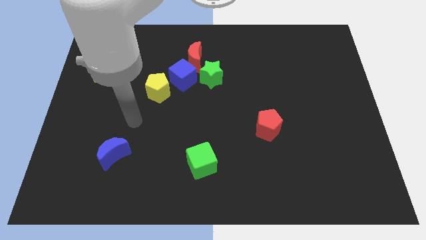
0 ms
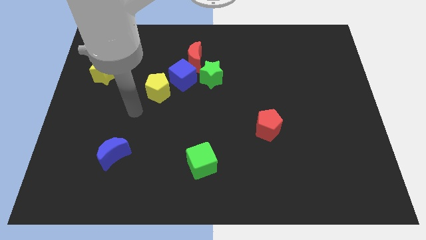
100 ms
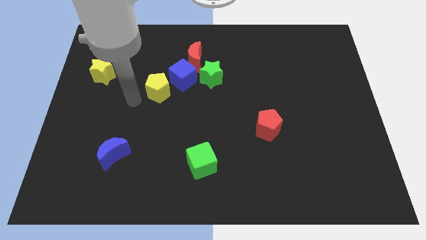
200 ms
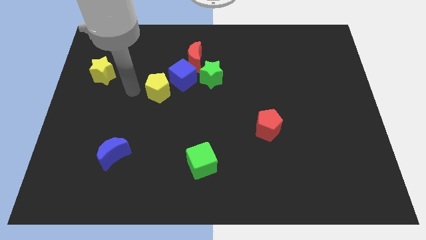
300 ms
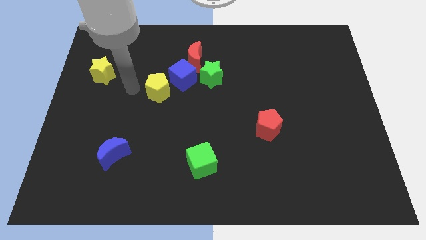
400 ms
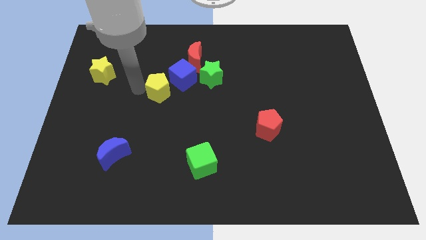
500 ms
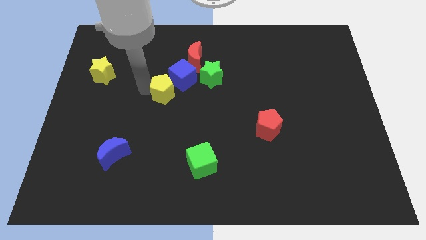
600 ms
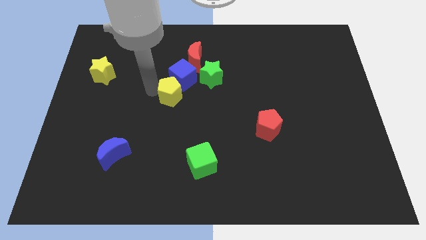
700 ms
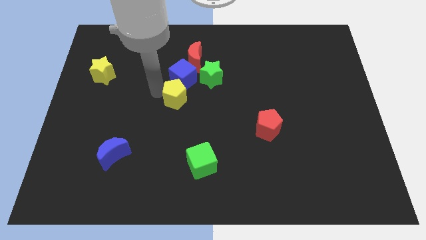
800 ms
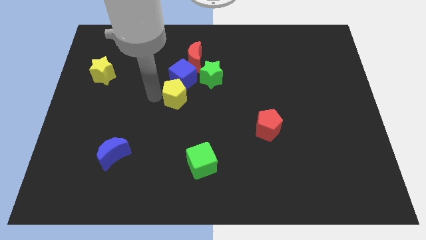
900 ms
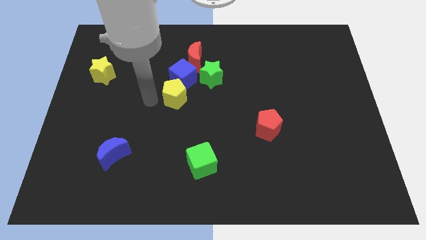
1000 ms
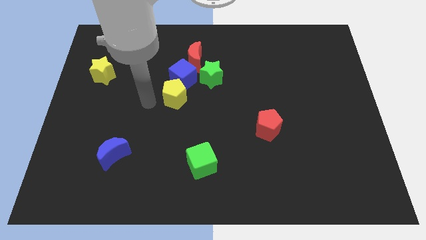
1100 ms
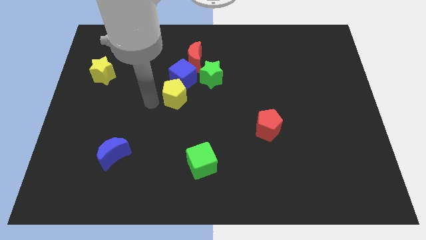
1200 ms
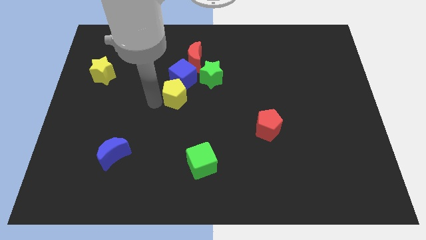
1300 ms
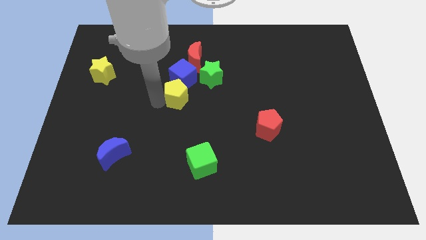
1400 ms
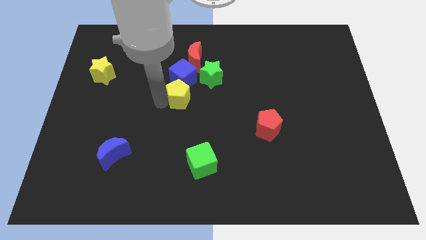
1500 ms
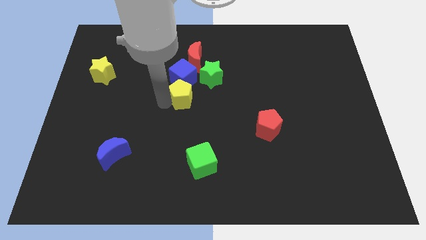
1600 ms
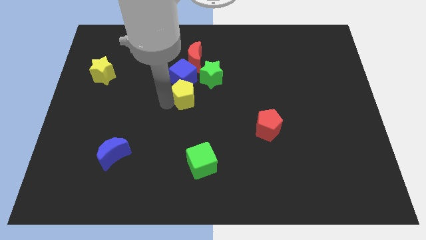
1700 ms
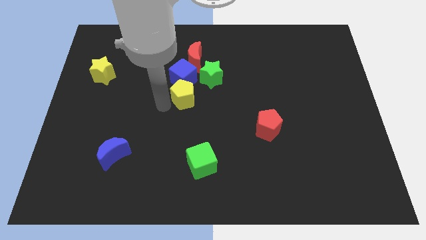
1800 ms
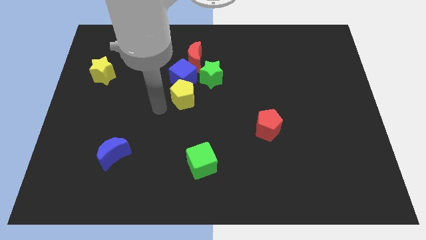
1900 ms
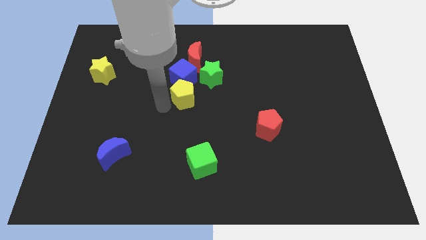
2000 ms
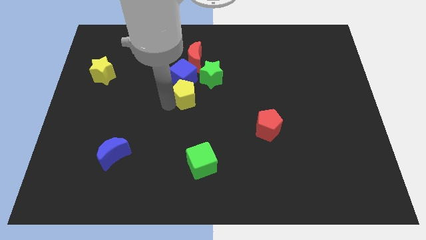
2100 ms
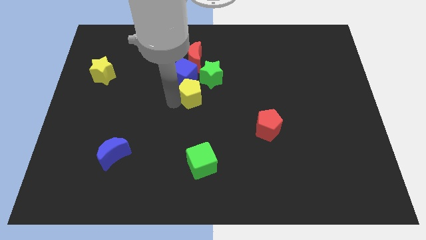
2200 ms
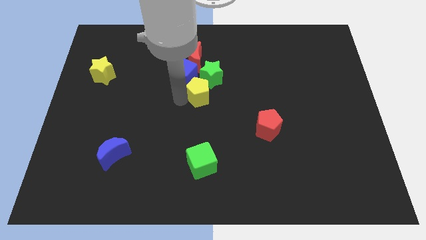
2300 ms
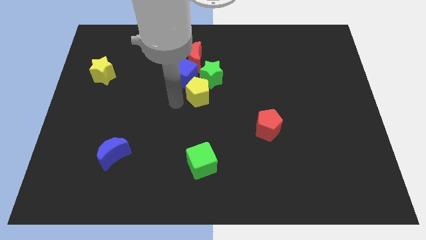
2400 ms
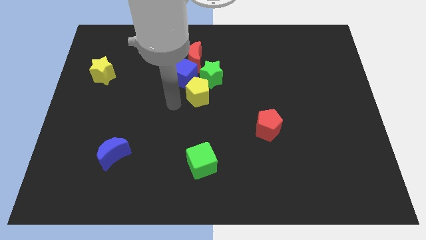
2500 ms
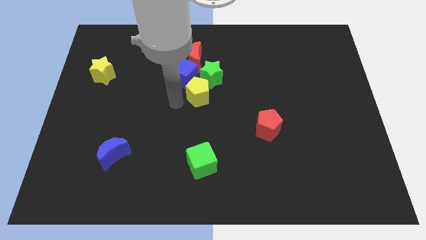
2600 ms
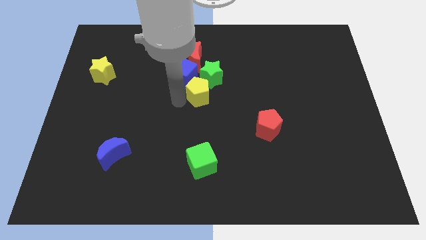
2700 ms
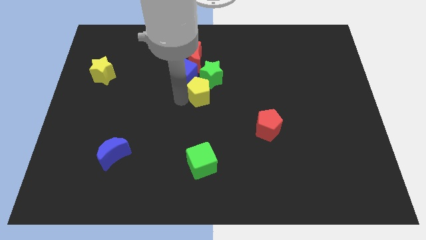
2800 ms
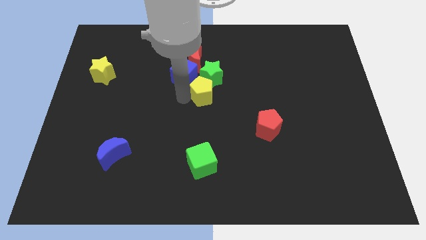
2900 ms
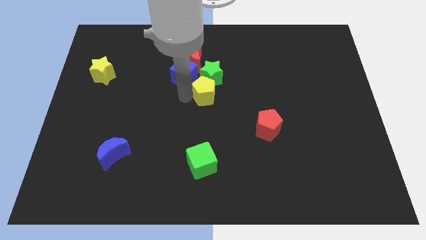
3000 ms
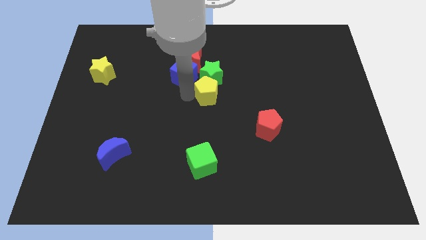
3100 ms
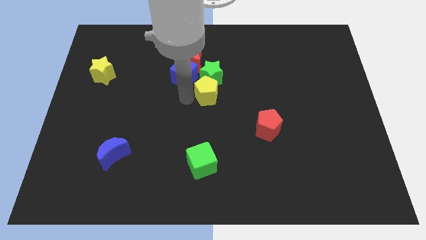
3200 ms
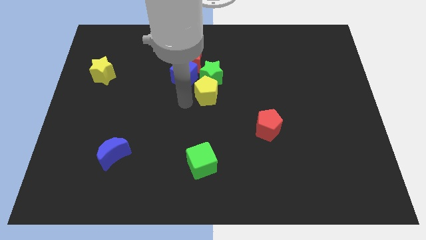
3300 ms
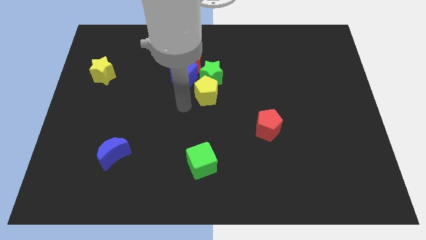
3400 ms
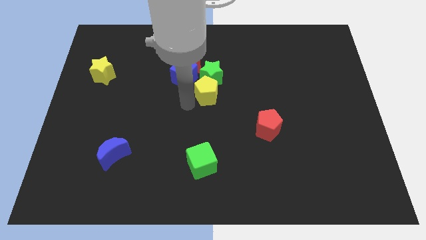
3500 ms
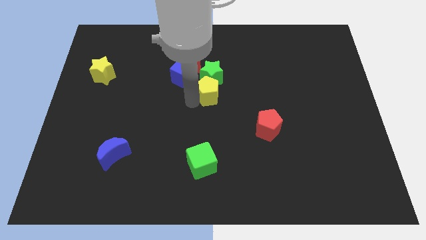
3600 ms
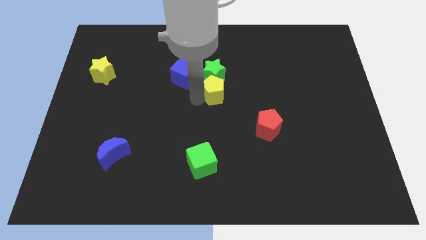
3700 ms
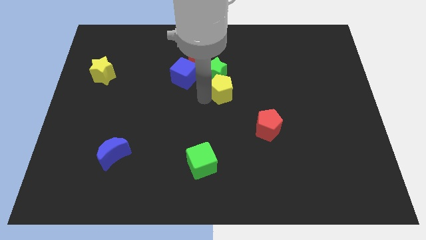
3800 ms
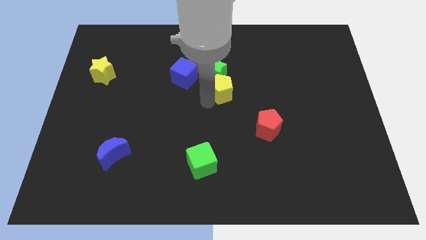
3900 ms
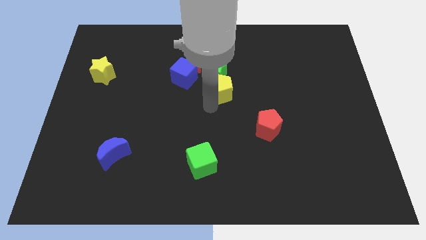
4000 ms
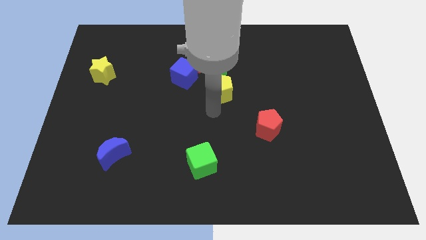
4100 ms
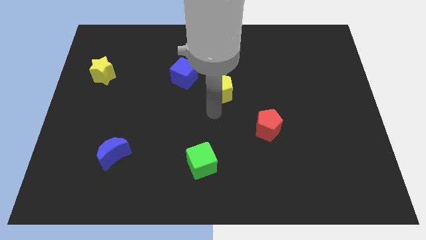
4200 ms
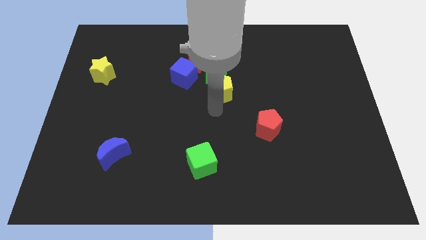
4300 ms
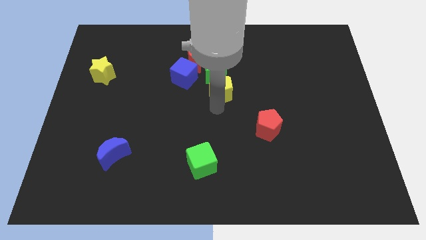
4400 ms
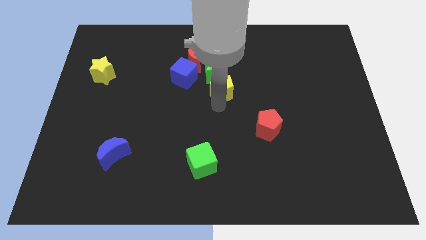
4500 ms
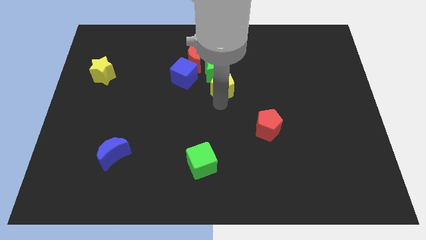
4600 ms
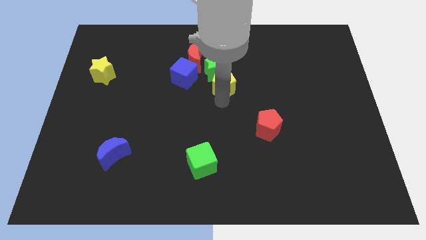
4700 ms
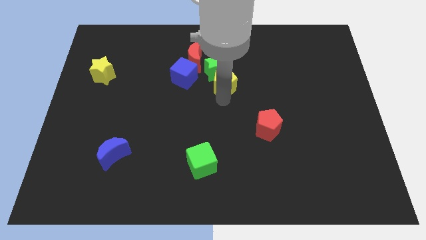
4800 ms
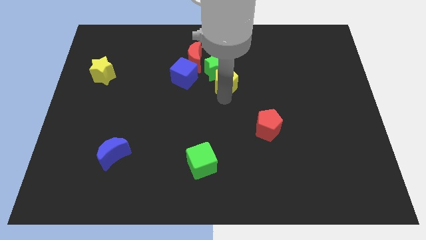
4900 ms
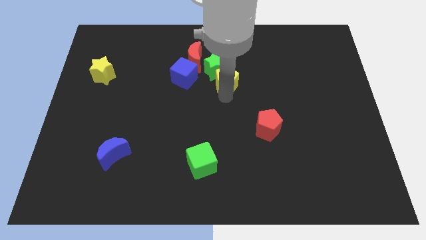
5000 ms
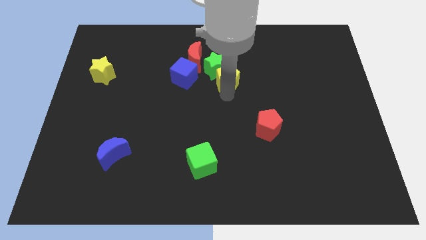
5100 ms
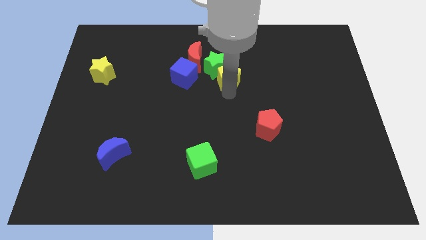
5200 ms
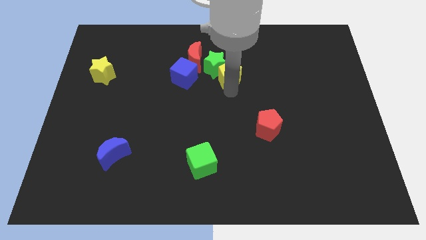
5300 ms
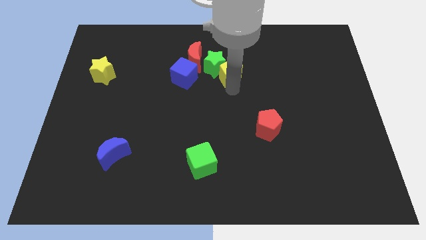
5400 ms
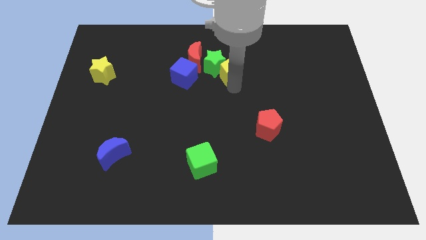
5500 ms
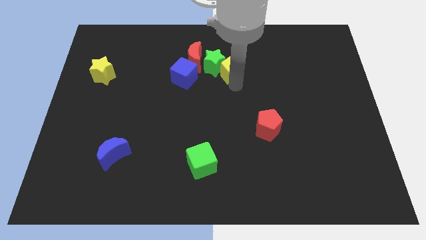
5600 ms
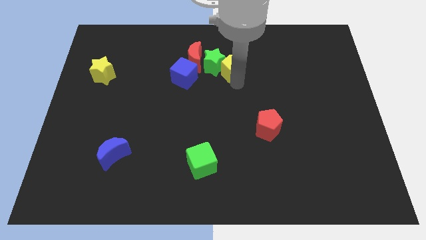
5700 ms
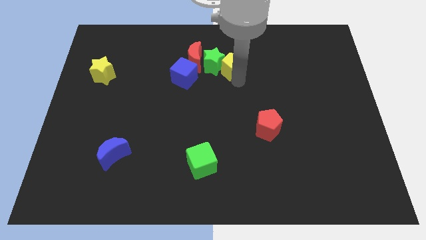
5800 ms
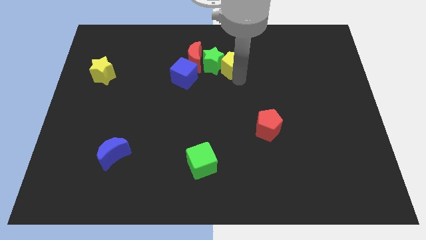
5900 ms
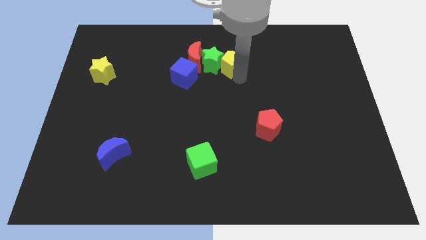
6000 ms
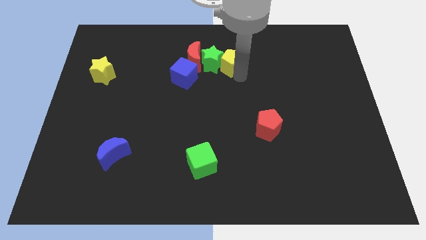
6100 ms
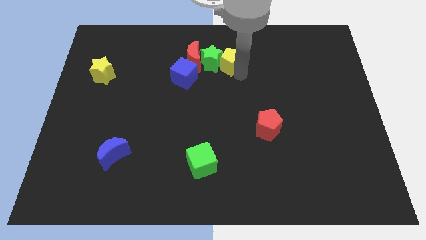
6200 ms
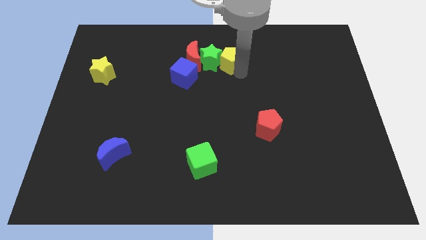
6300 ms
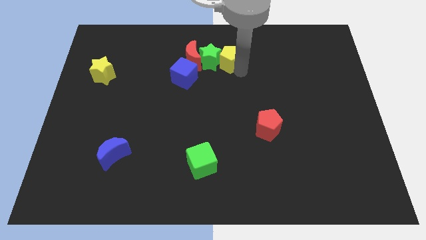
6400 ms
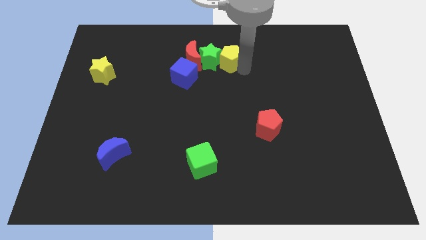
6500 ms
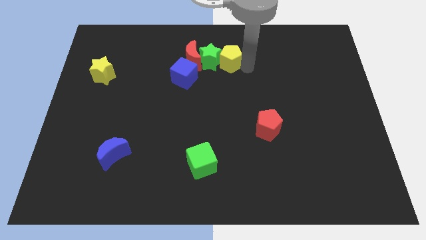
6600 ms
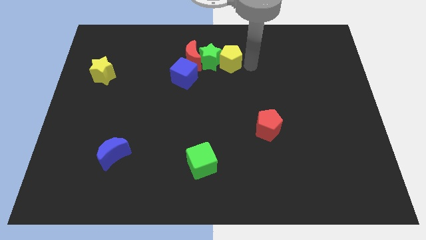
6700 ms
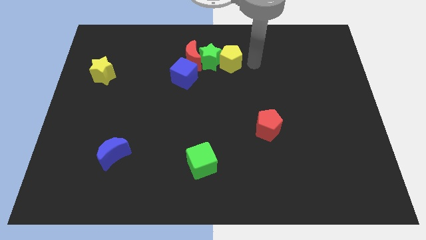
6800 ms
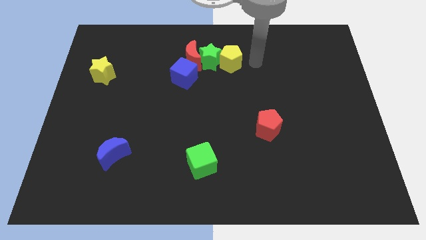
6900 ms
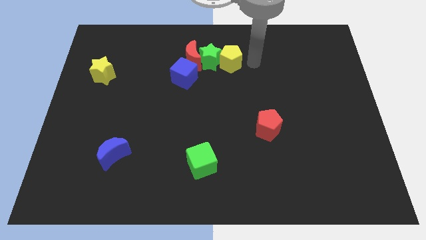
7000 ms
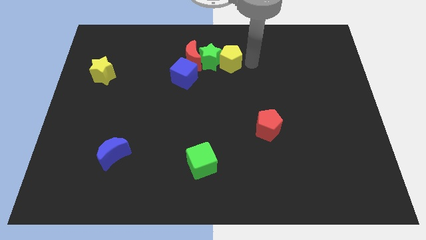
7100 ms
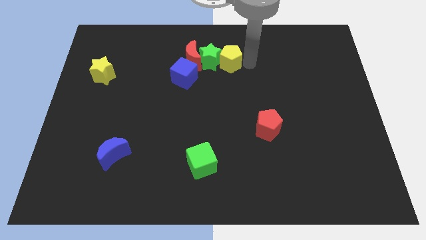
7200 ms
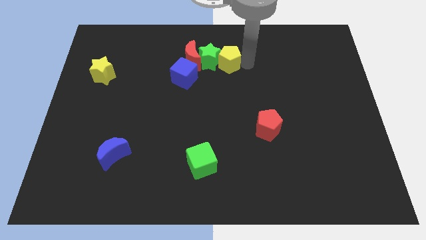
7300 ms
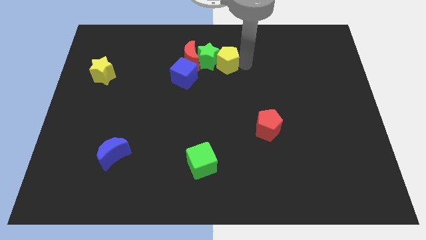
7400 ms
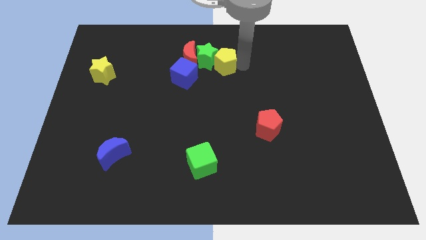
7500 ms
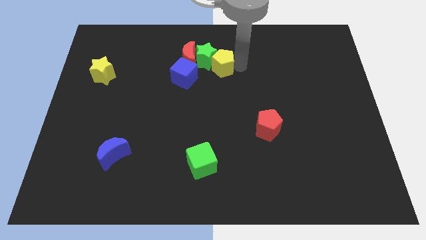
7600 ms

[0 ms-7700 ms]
put the yellow pentagon diagonally up and to the right of the blue cube

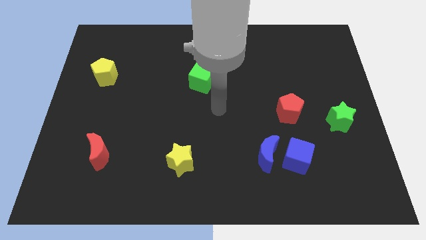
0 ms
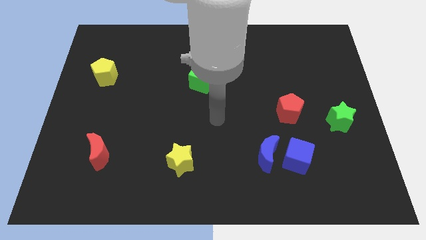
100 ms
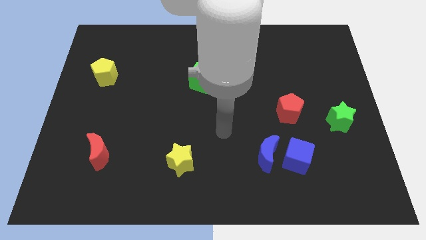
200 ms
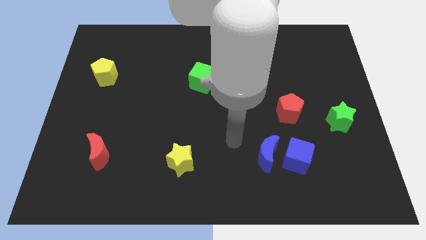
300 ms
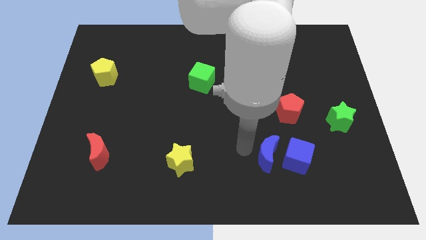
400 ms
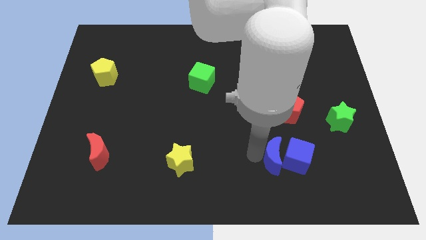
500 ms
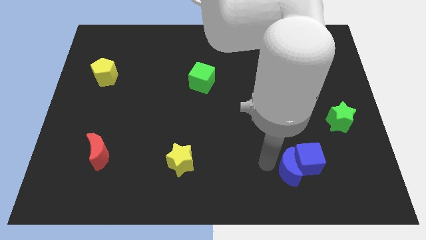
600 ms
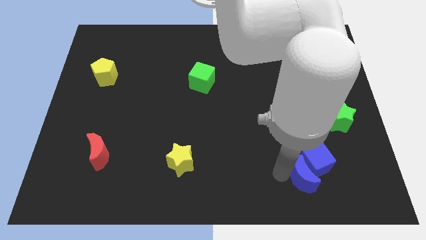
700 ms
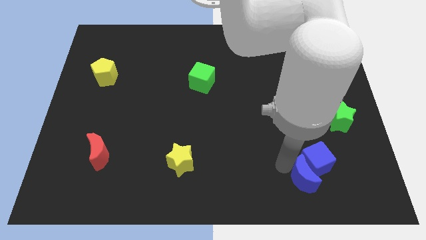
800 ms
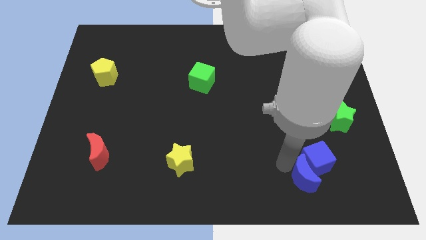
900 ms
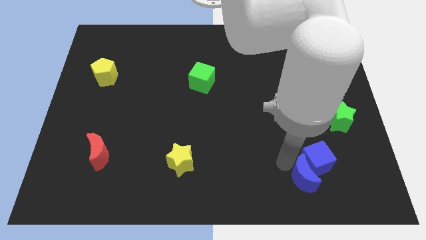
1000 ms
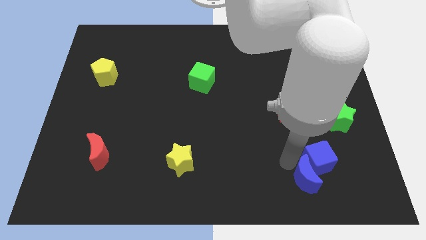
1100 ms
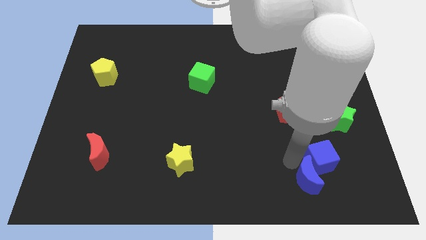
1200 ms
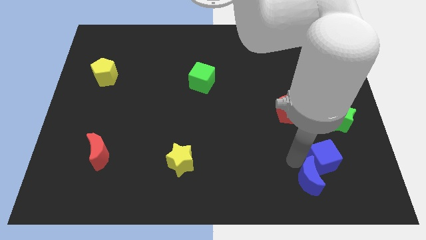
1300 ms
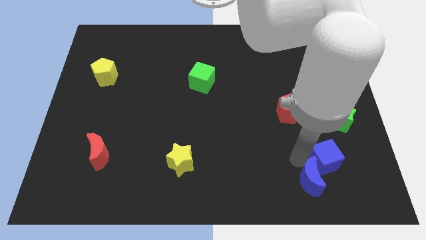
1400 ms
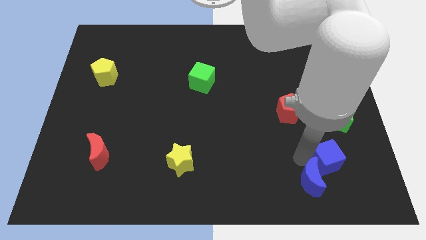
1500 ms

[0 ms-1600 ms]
slide the blue cube to the bottom of the green star
